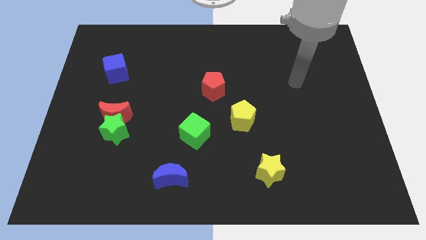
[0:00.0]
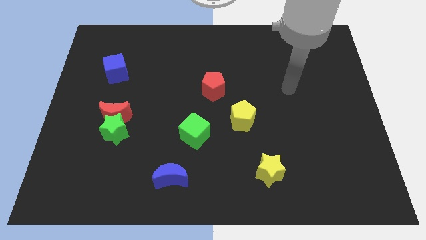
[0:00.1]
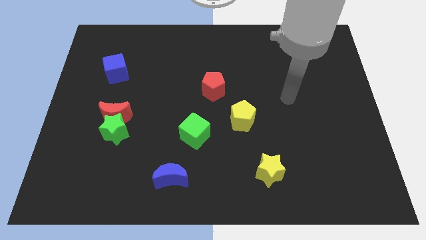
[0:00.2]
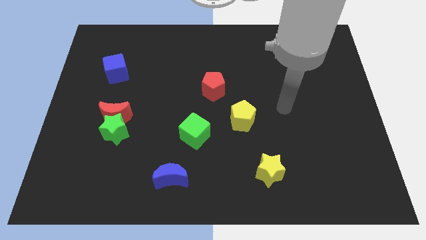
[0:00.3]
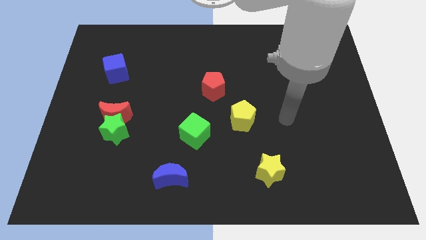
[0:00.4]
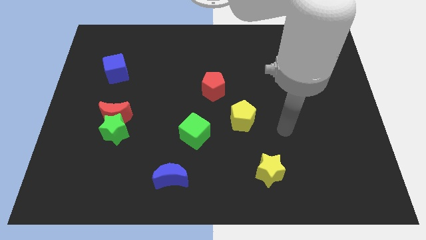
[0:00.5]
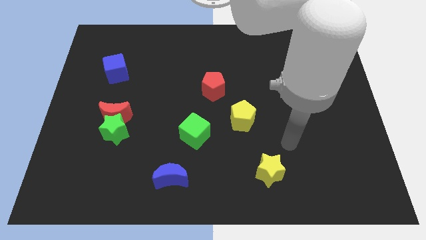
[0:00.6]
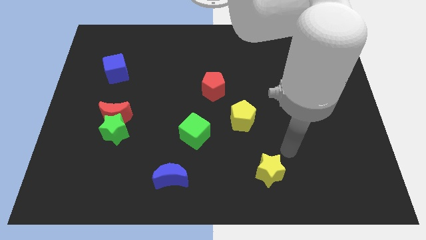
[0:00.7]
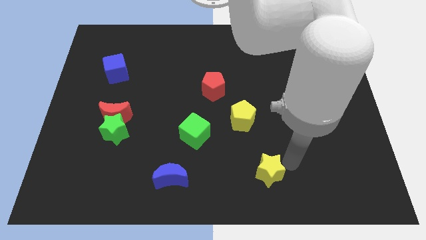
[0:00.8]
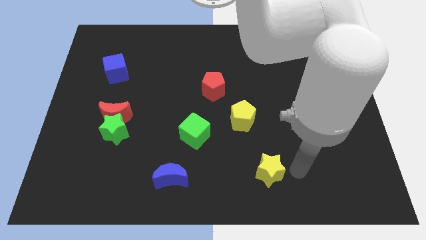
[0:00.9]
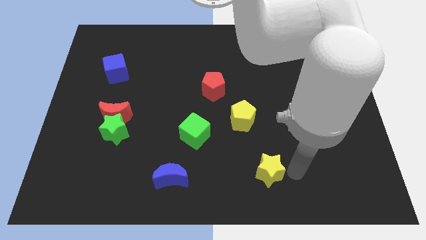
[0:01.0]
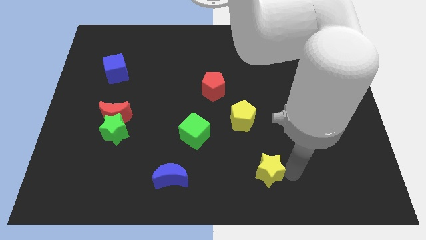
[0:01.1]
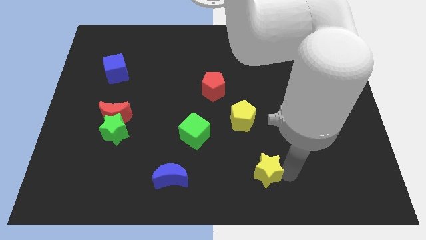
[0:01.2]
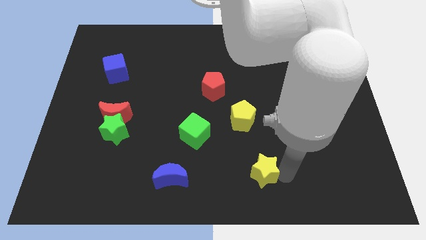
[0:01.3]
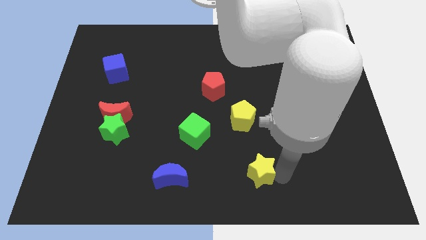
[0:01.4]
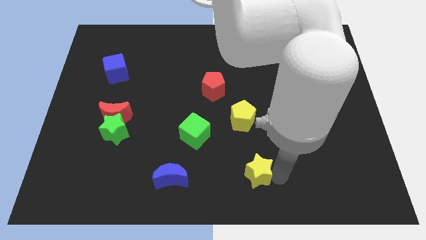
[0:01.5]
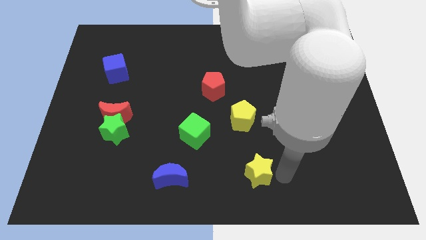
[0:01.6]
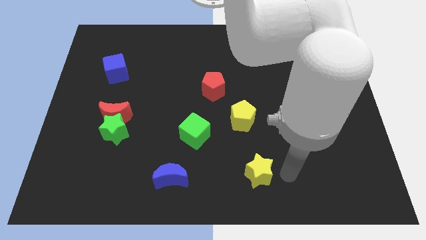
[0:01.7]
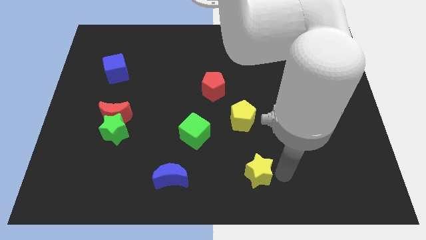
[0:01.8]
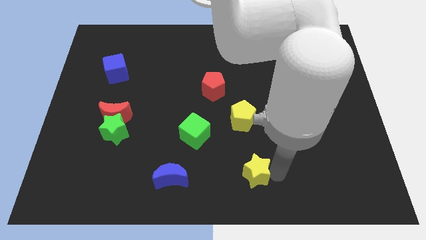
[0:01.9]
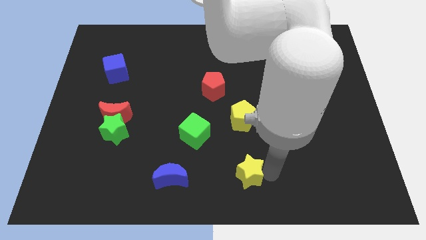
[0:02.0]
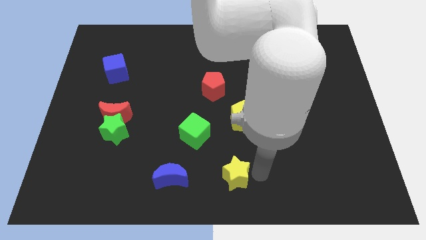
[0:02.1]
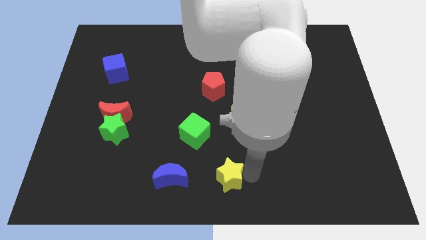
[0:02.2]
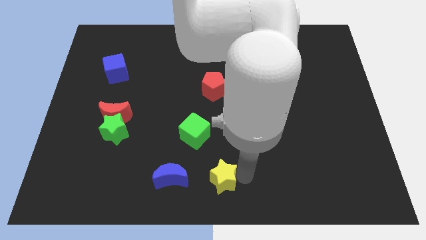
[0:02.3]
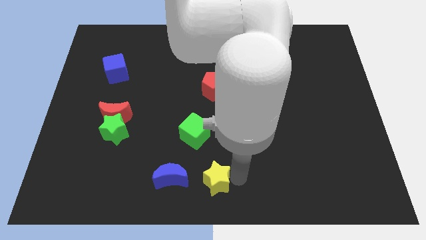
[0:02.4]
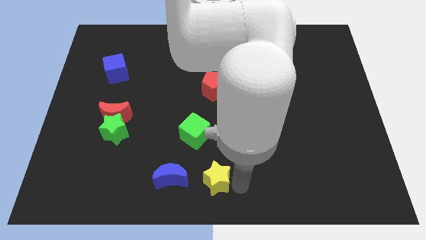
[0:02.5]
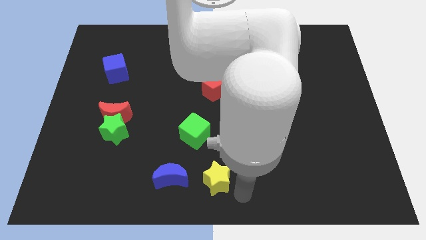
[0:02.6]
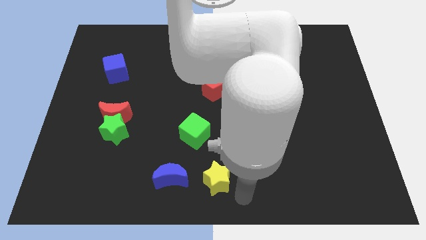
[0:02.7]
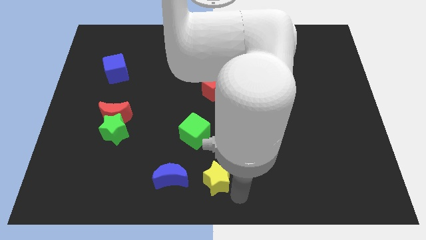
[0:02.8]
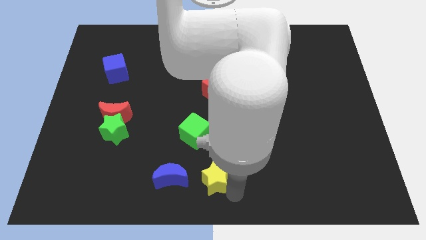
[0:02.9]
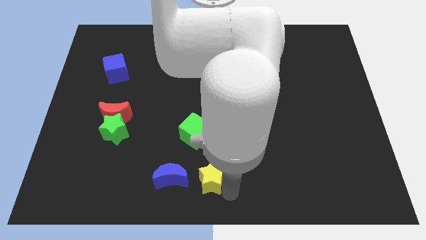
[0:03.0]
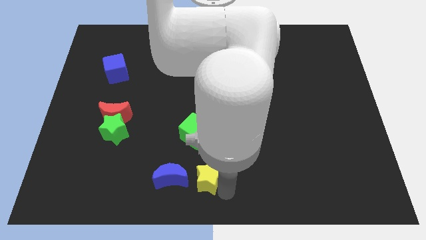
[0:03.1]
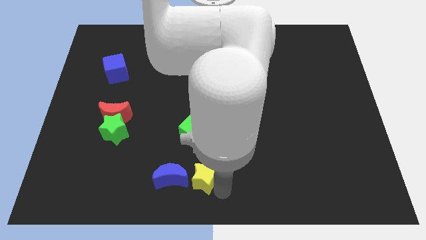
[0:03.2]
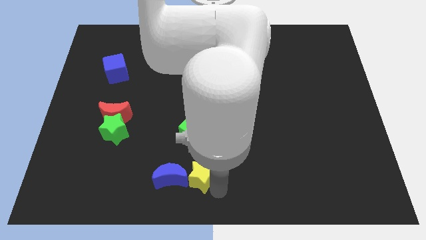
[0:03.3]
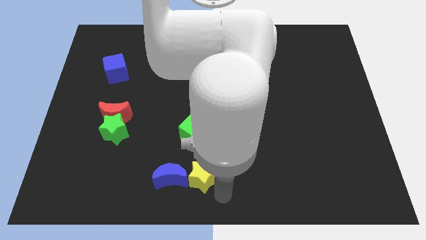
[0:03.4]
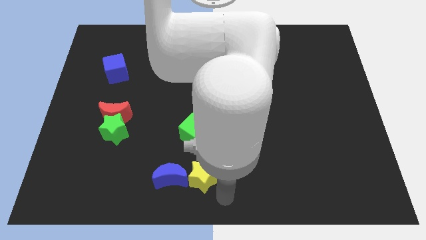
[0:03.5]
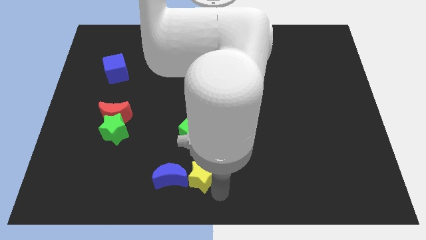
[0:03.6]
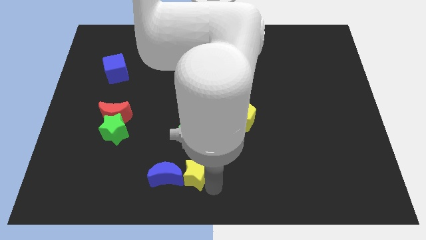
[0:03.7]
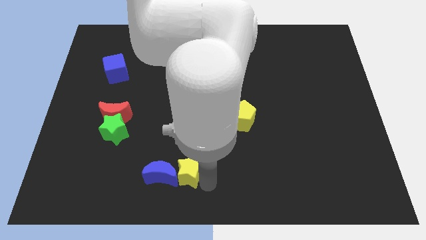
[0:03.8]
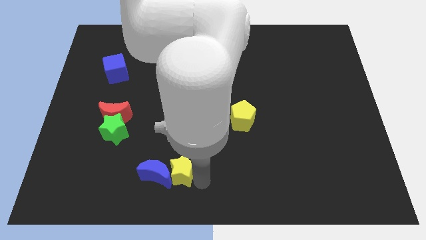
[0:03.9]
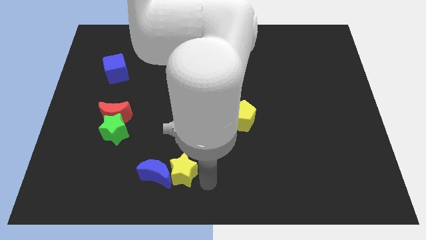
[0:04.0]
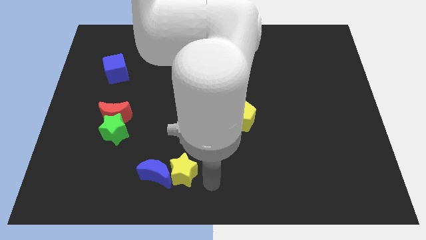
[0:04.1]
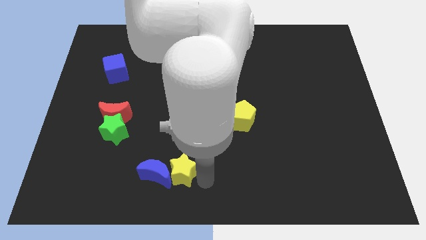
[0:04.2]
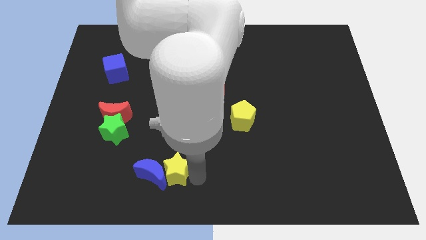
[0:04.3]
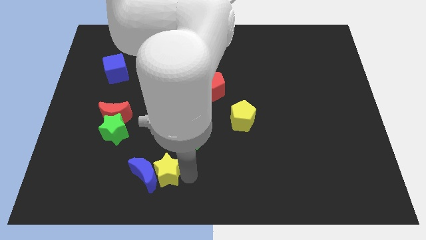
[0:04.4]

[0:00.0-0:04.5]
move the yellow star to the left

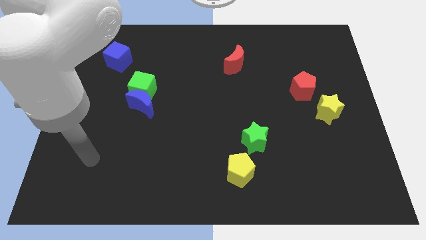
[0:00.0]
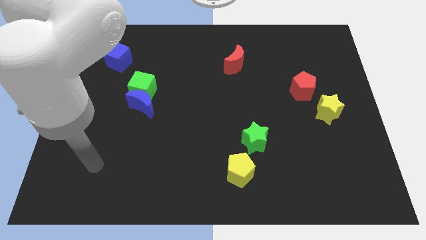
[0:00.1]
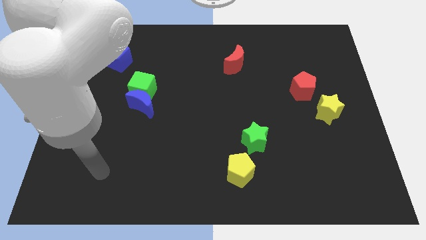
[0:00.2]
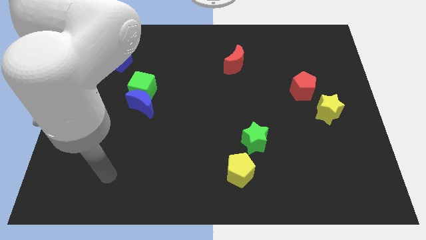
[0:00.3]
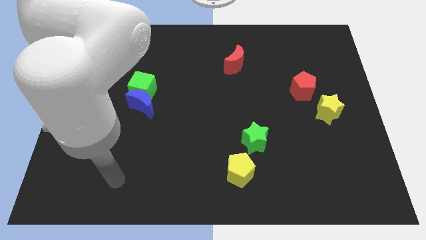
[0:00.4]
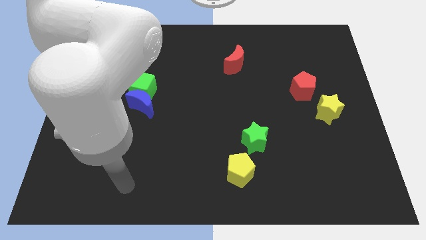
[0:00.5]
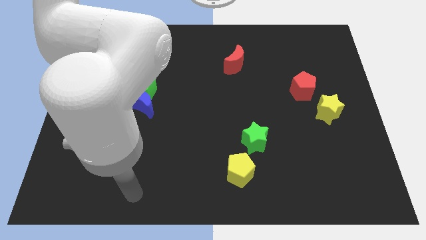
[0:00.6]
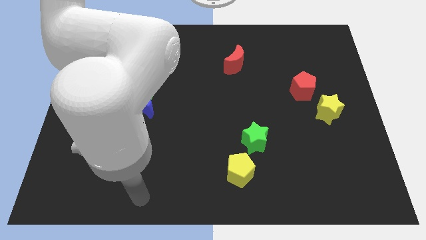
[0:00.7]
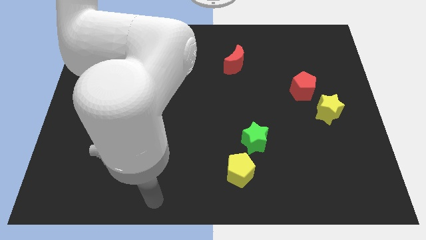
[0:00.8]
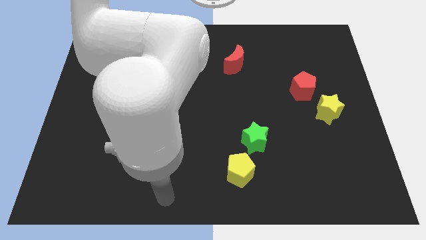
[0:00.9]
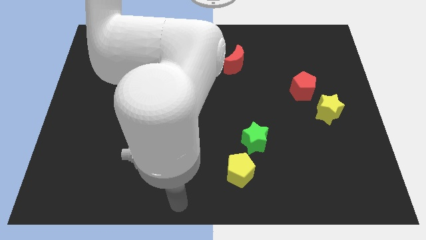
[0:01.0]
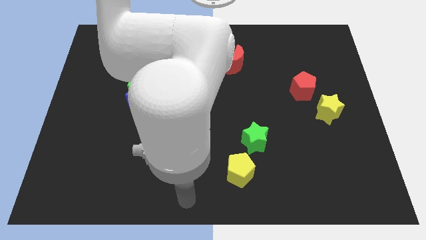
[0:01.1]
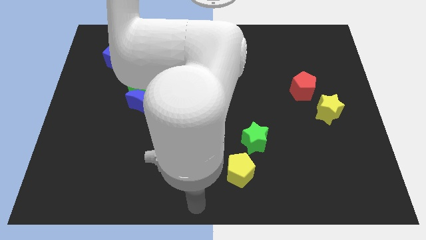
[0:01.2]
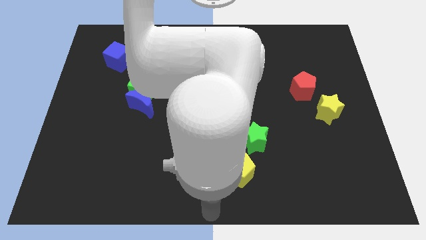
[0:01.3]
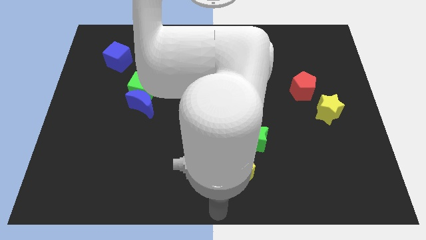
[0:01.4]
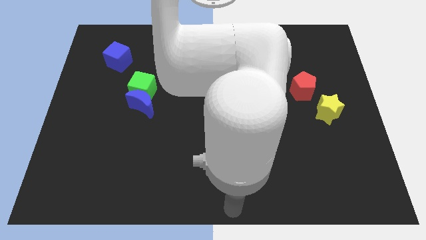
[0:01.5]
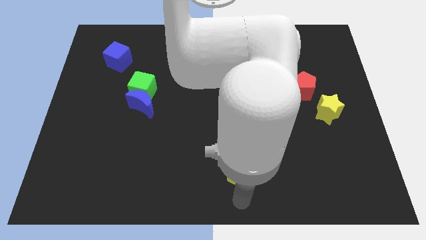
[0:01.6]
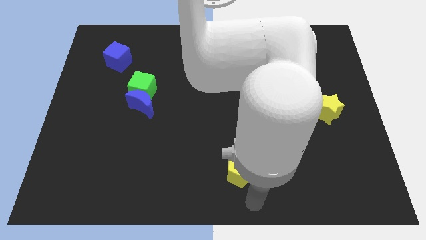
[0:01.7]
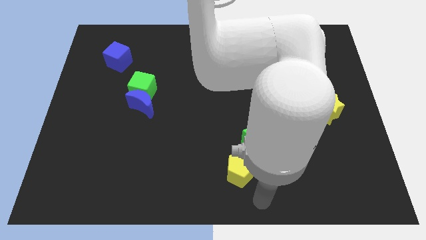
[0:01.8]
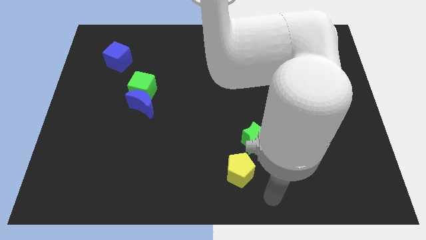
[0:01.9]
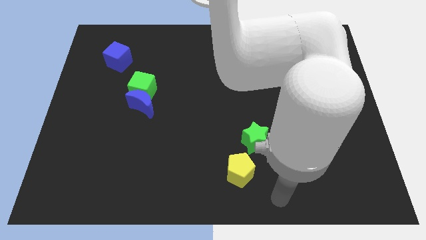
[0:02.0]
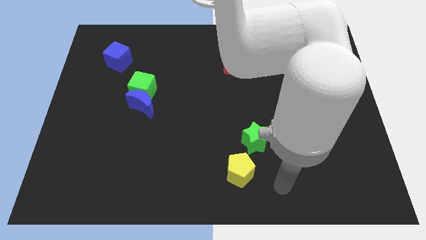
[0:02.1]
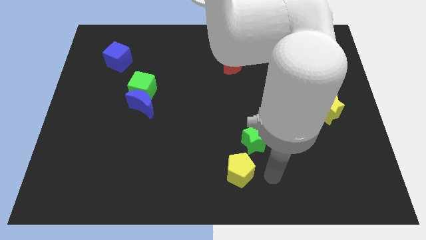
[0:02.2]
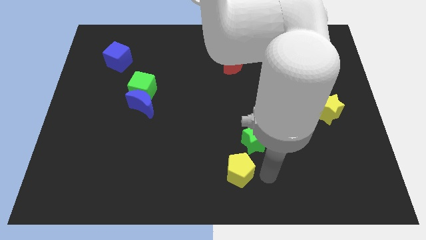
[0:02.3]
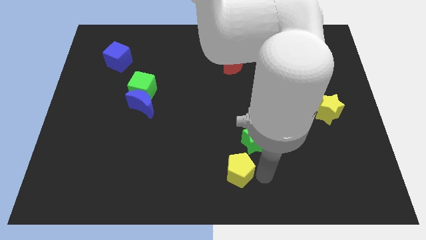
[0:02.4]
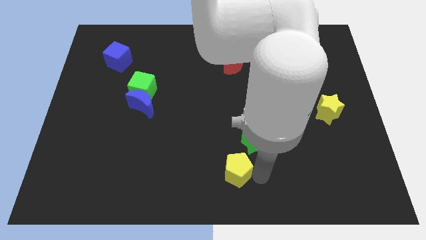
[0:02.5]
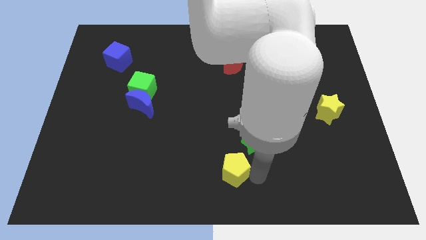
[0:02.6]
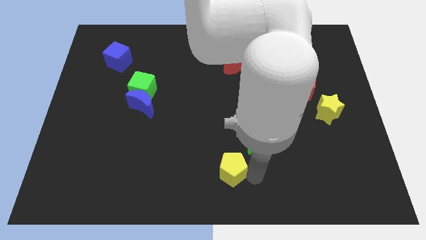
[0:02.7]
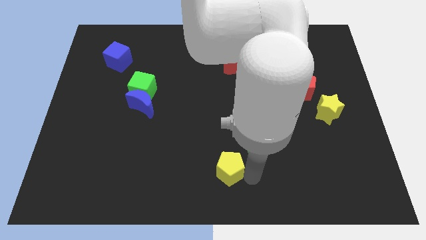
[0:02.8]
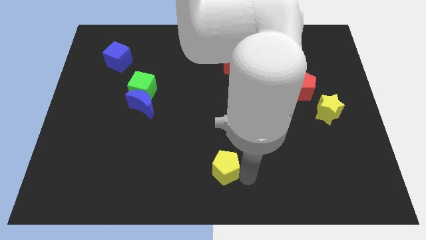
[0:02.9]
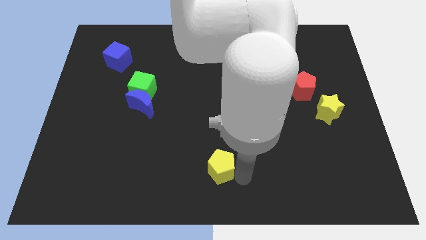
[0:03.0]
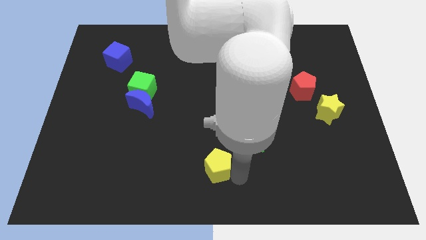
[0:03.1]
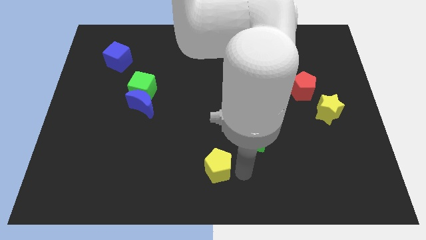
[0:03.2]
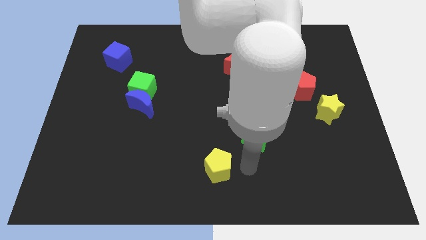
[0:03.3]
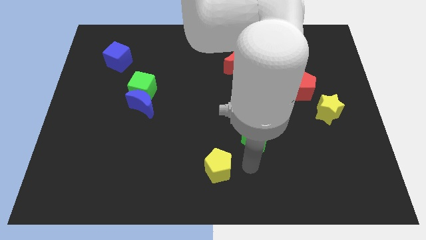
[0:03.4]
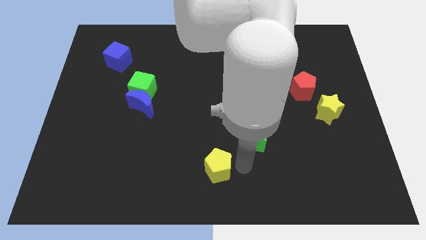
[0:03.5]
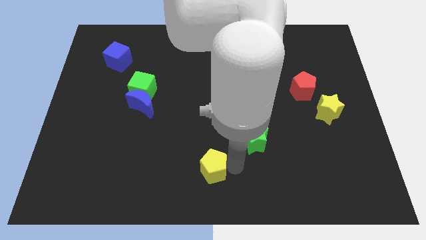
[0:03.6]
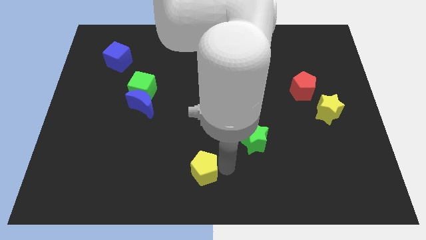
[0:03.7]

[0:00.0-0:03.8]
slightly slide the yellow pentagon left
